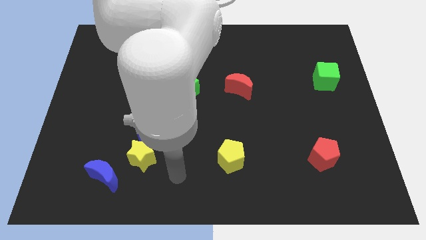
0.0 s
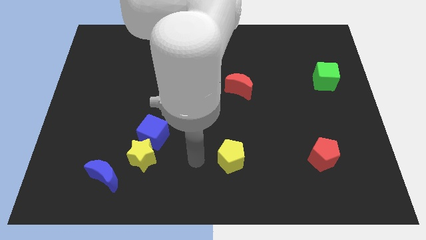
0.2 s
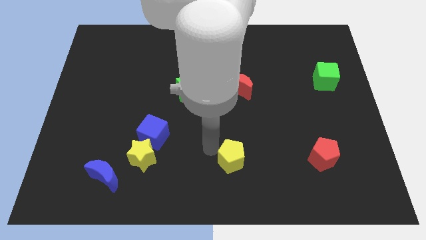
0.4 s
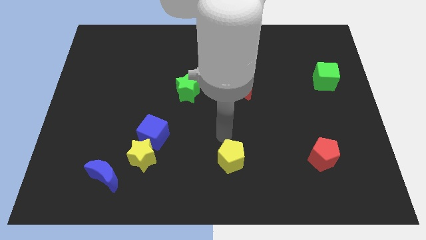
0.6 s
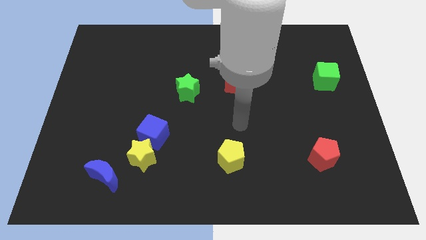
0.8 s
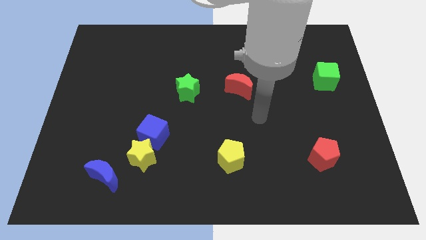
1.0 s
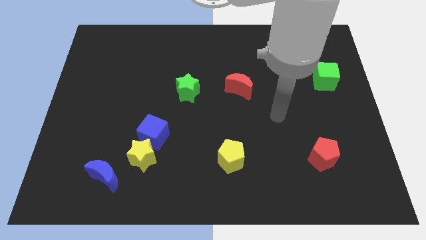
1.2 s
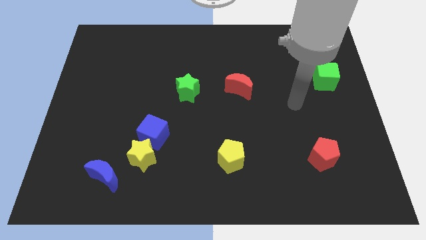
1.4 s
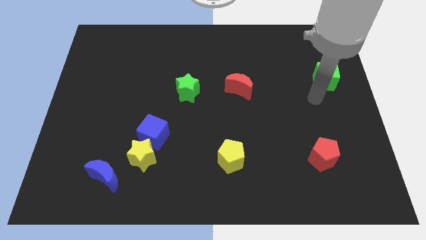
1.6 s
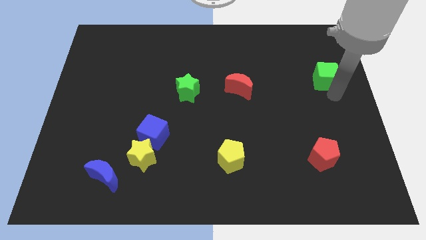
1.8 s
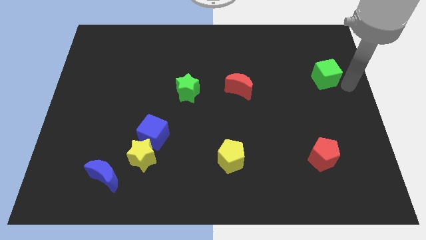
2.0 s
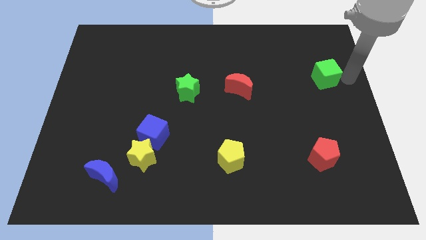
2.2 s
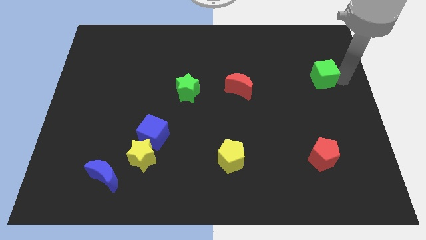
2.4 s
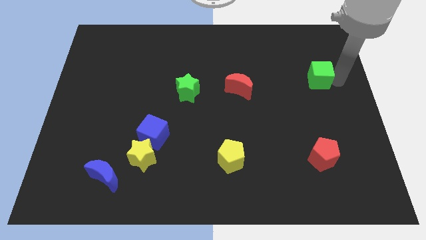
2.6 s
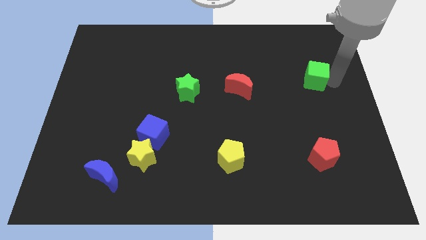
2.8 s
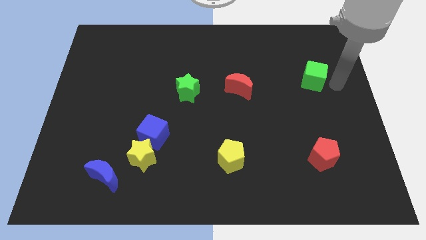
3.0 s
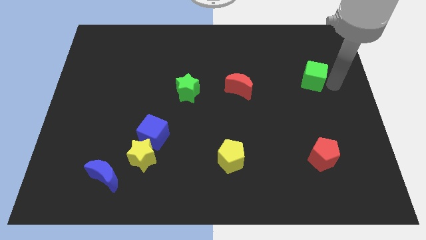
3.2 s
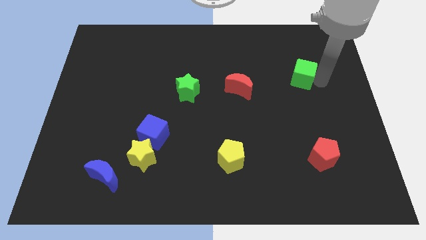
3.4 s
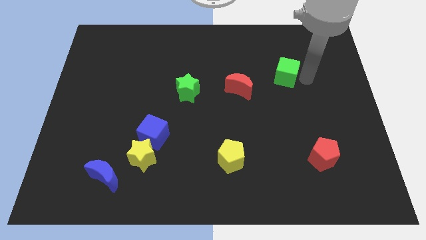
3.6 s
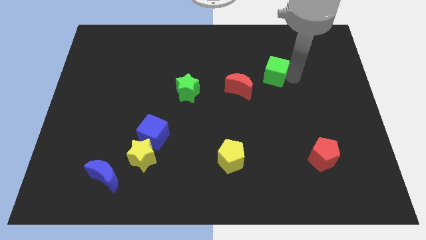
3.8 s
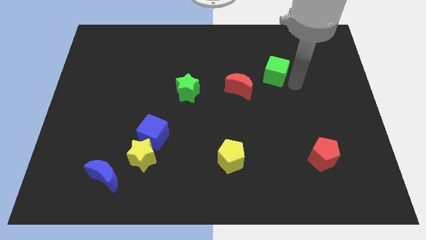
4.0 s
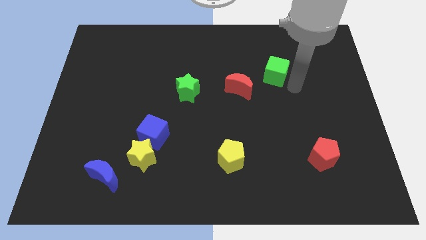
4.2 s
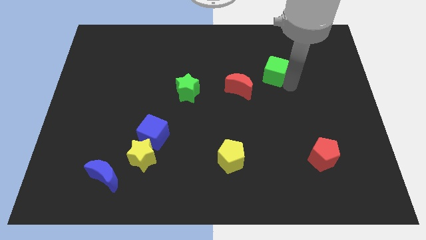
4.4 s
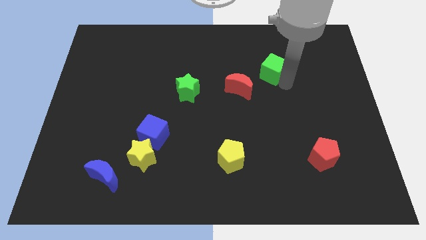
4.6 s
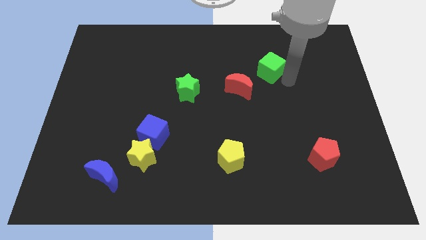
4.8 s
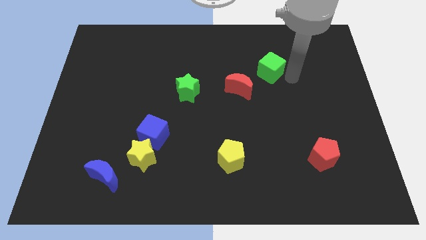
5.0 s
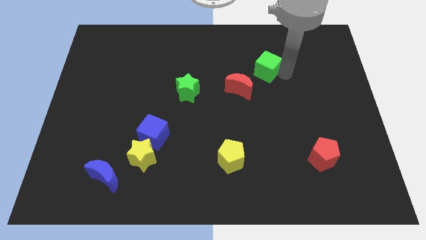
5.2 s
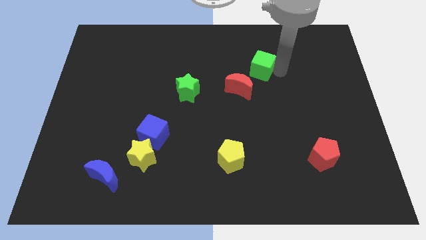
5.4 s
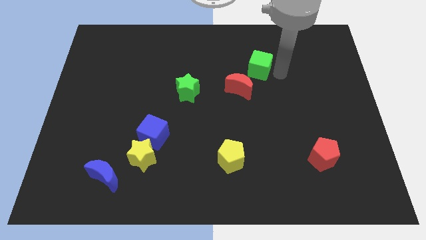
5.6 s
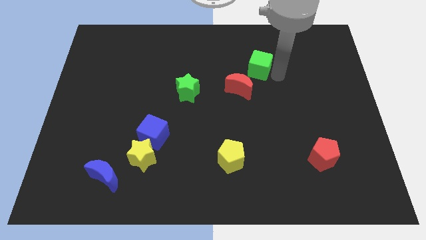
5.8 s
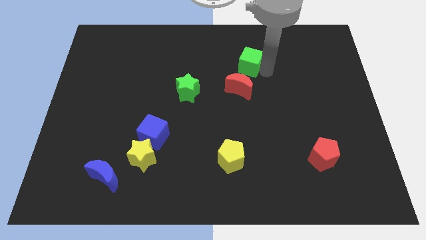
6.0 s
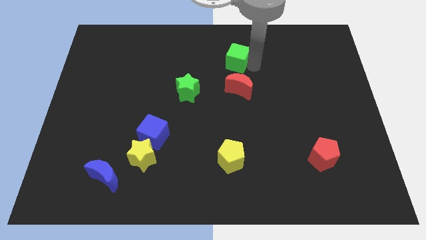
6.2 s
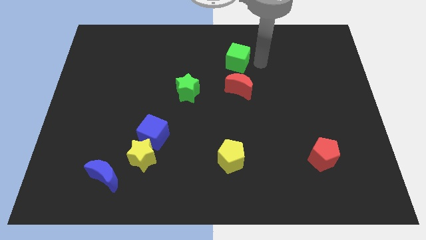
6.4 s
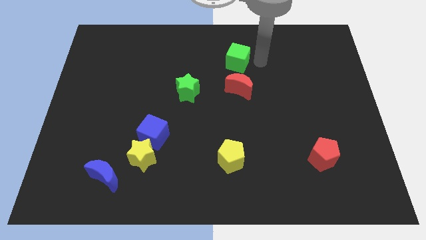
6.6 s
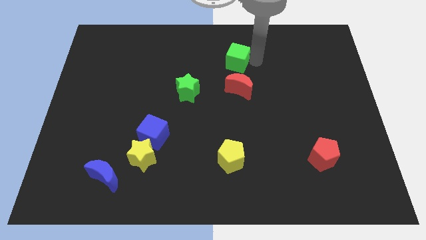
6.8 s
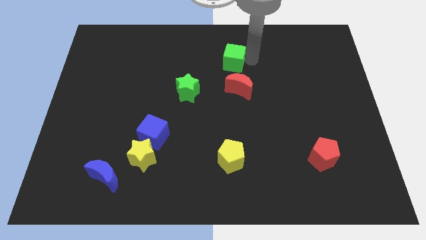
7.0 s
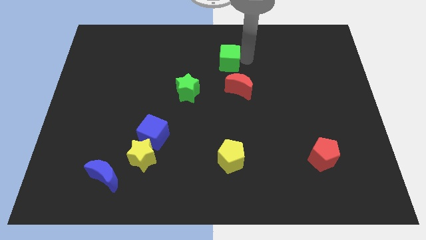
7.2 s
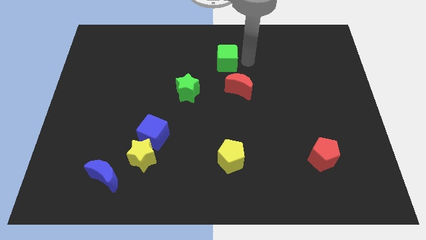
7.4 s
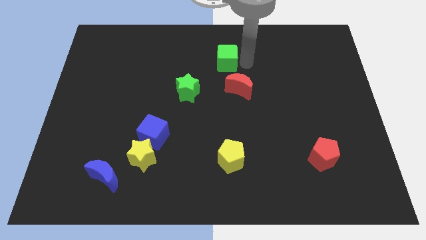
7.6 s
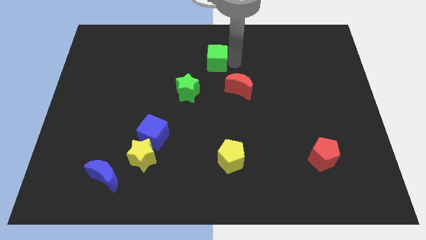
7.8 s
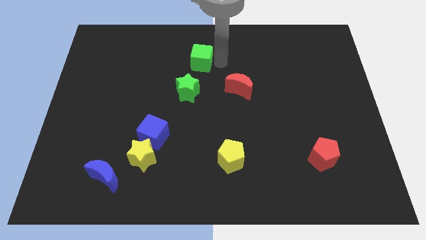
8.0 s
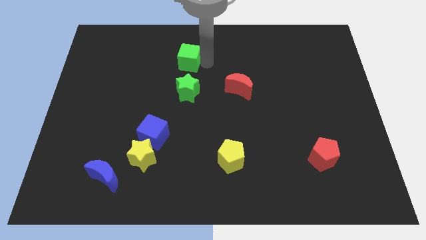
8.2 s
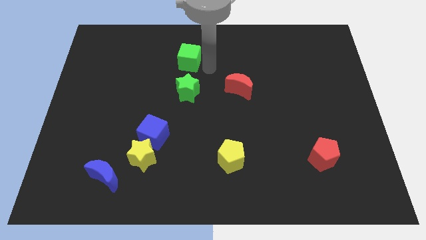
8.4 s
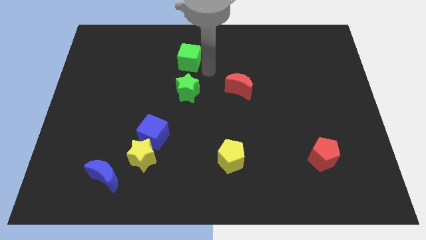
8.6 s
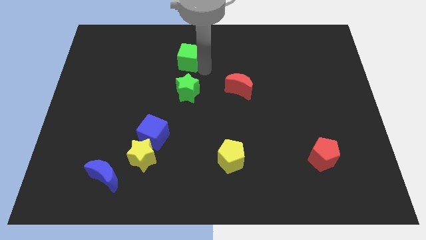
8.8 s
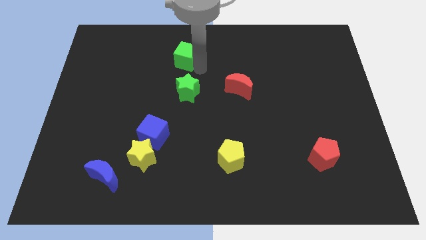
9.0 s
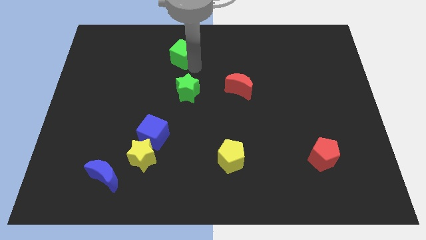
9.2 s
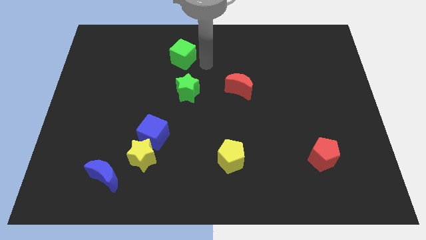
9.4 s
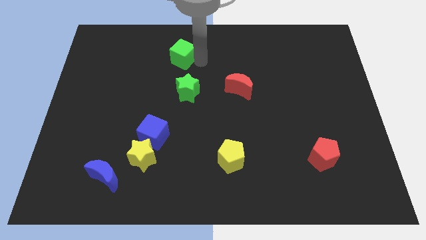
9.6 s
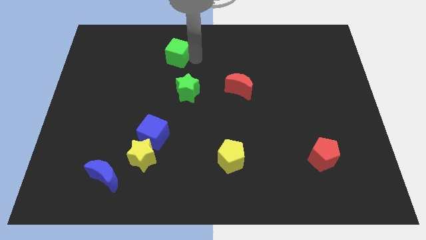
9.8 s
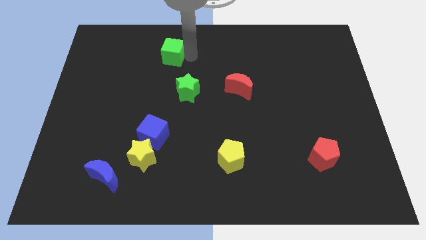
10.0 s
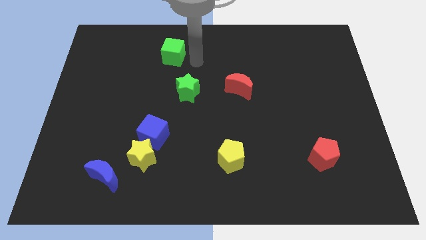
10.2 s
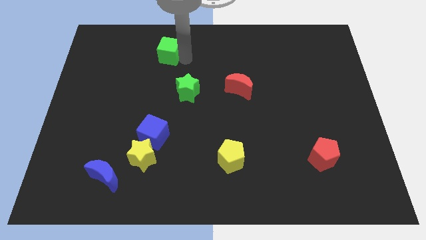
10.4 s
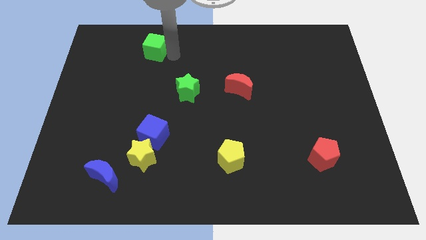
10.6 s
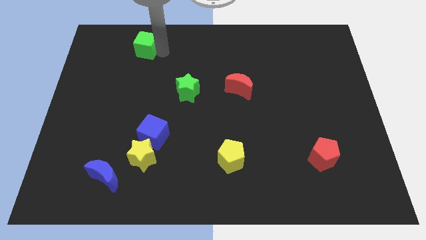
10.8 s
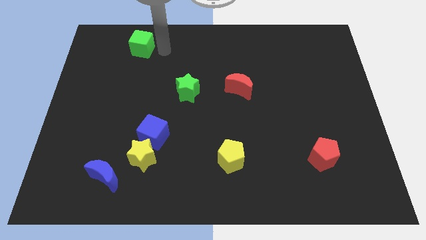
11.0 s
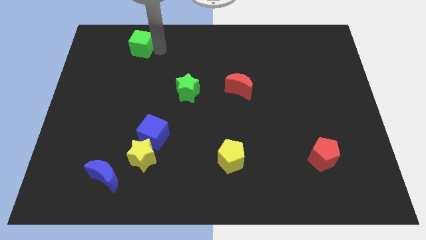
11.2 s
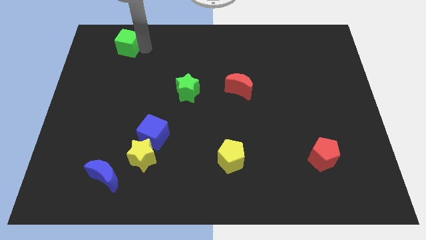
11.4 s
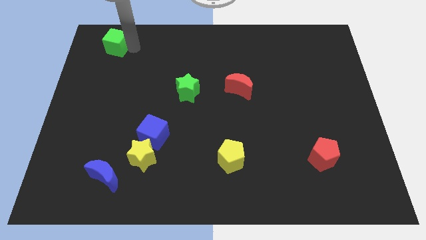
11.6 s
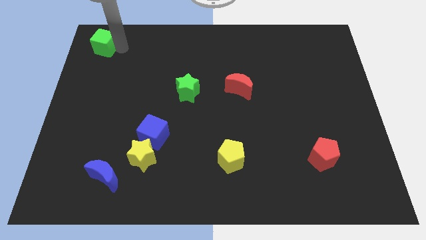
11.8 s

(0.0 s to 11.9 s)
push the green cube to the upper left corner

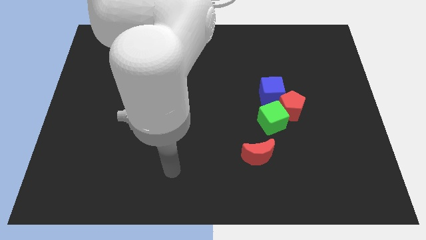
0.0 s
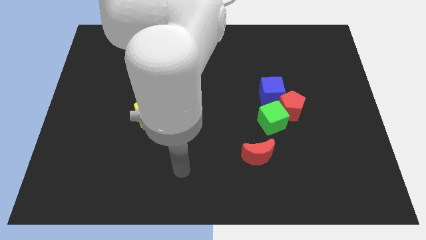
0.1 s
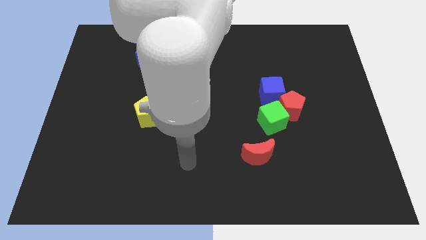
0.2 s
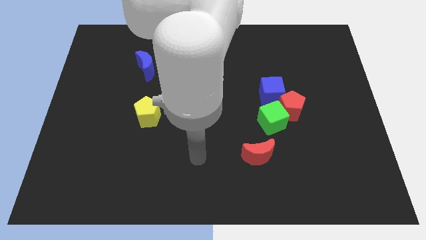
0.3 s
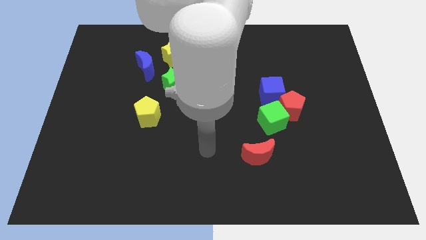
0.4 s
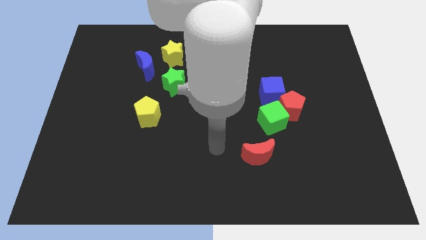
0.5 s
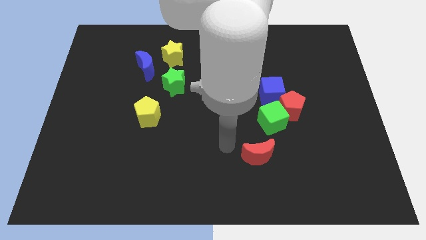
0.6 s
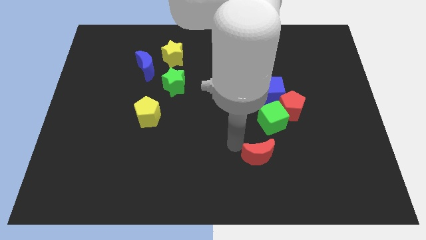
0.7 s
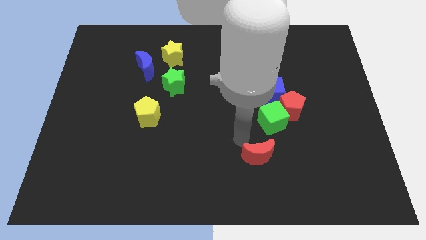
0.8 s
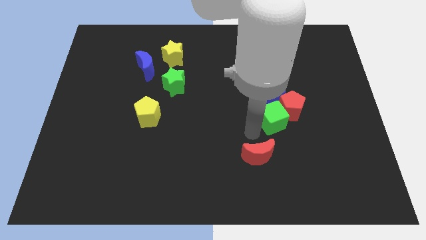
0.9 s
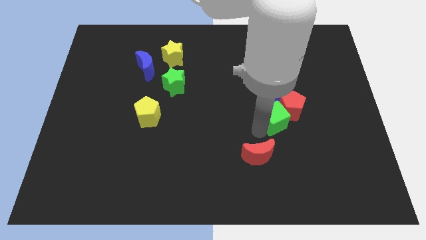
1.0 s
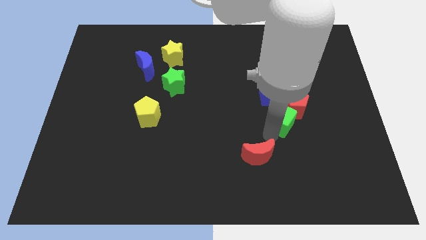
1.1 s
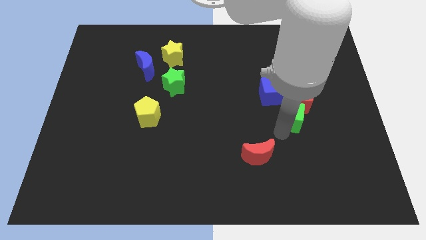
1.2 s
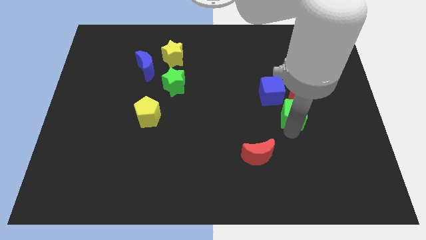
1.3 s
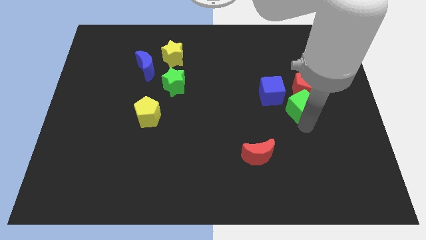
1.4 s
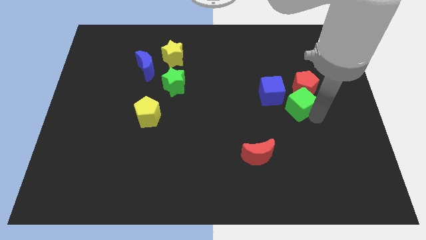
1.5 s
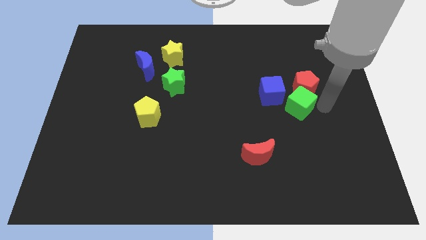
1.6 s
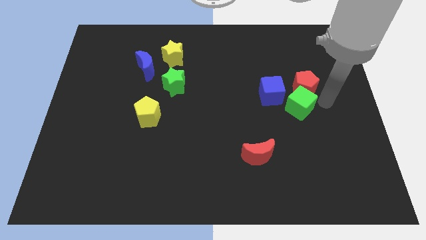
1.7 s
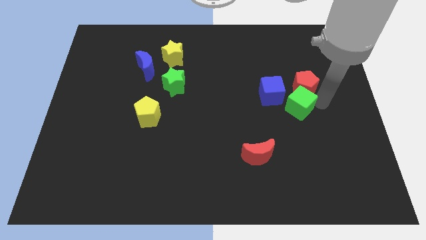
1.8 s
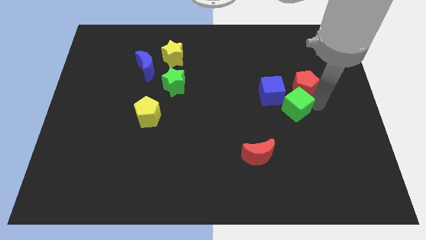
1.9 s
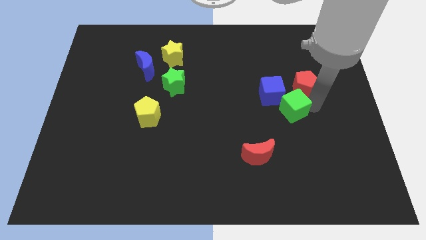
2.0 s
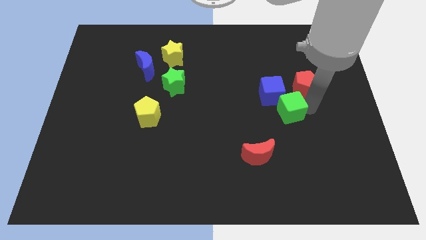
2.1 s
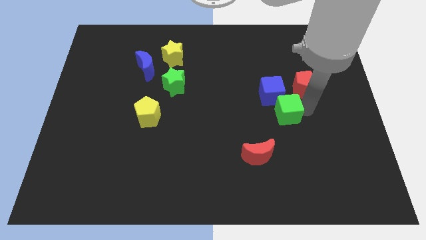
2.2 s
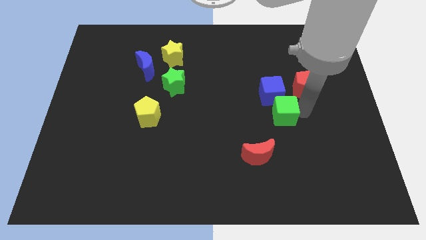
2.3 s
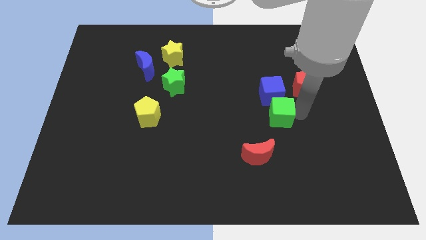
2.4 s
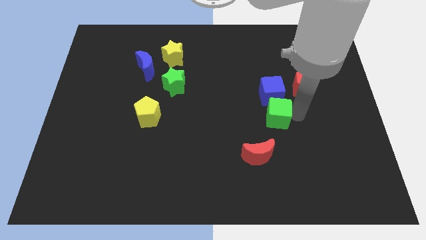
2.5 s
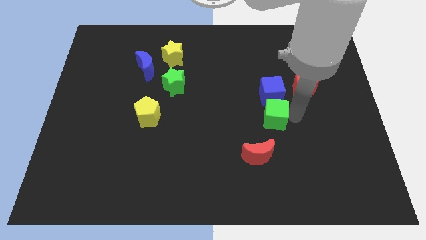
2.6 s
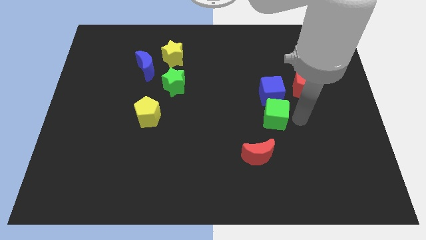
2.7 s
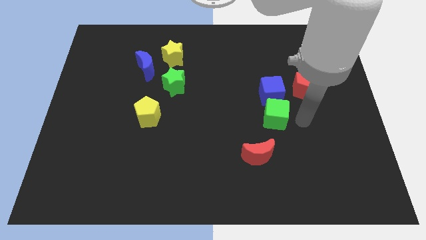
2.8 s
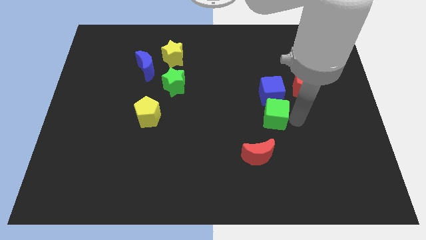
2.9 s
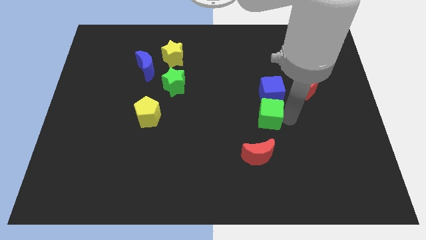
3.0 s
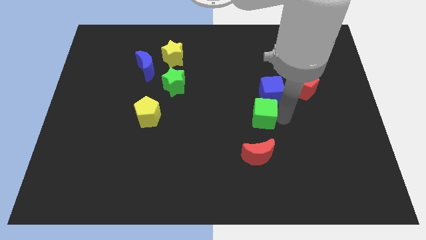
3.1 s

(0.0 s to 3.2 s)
push the green cube to the middle
